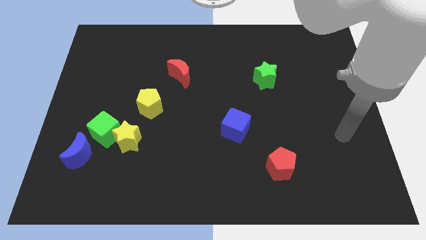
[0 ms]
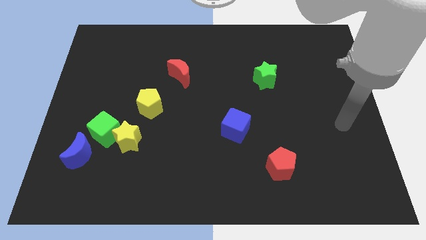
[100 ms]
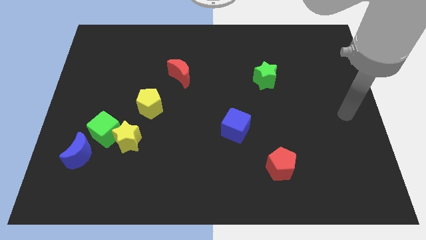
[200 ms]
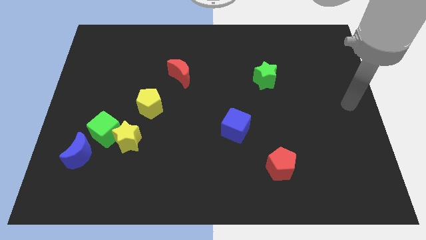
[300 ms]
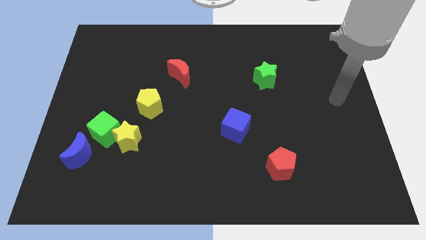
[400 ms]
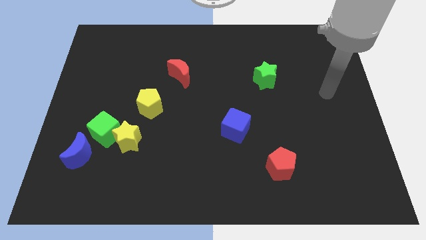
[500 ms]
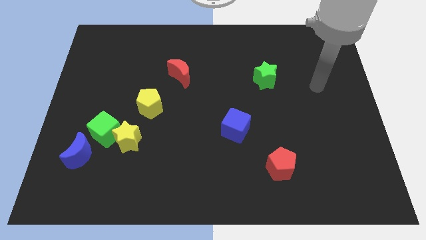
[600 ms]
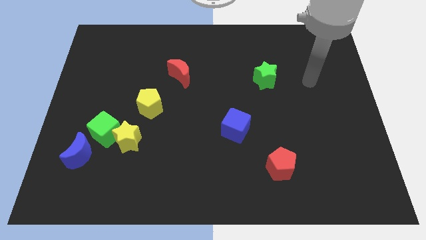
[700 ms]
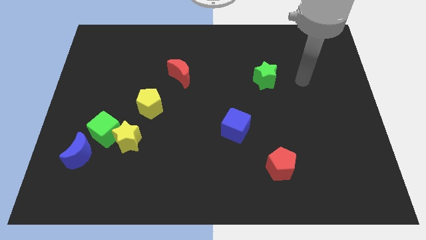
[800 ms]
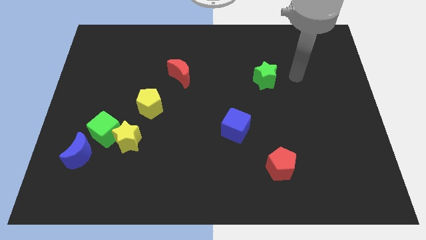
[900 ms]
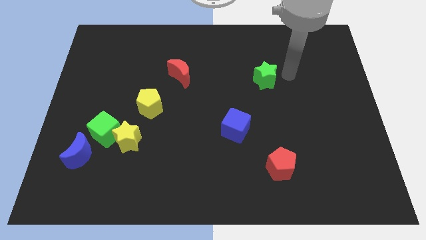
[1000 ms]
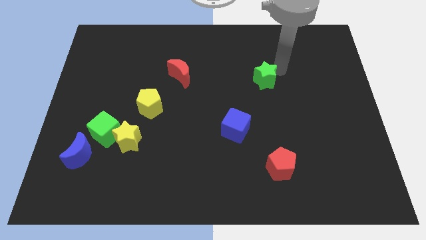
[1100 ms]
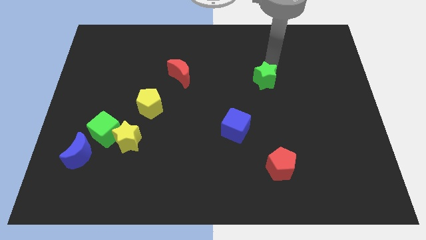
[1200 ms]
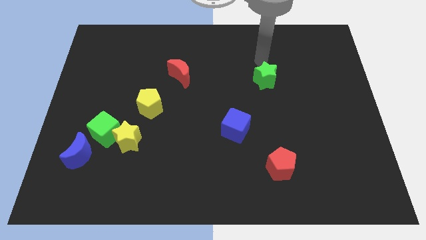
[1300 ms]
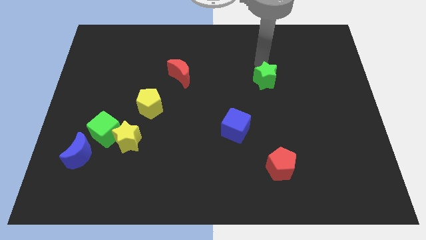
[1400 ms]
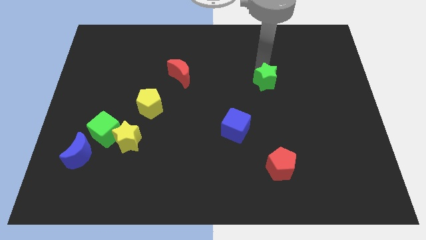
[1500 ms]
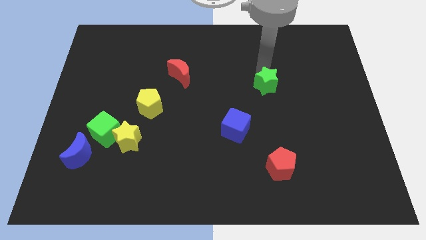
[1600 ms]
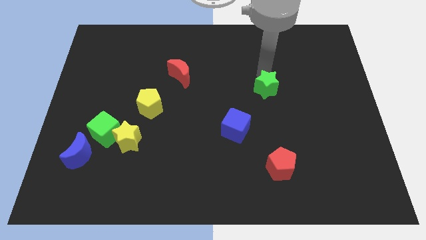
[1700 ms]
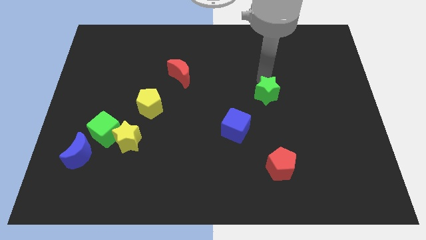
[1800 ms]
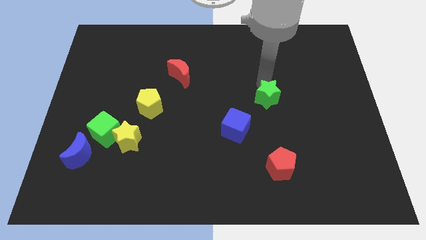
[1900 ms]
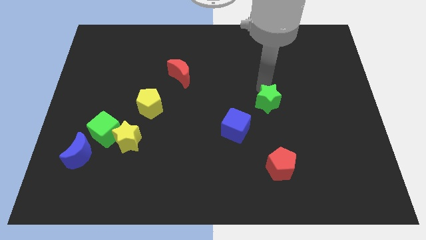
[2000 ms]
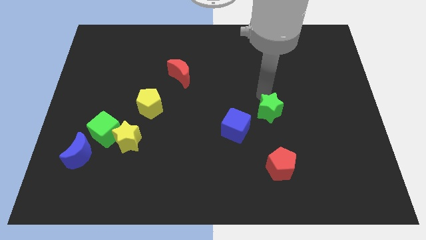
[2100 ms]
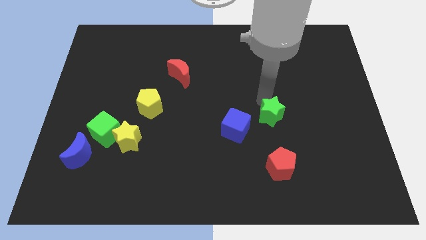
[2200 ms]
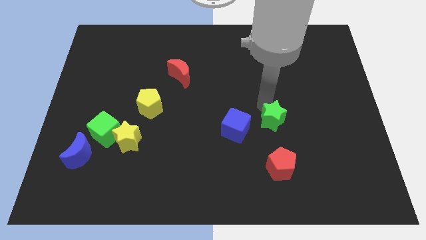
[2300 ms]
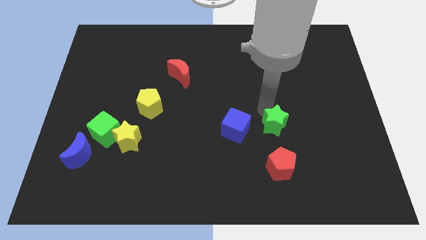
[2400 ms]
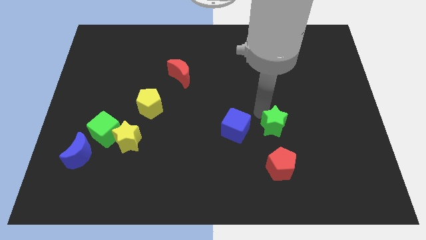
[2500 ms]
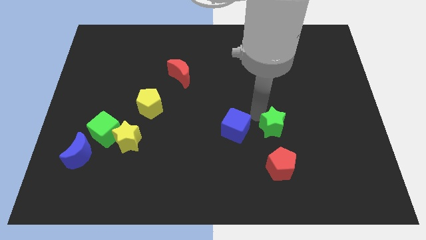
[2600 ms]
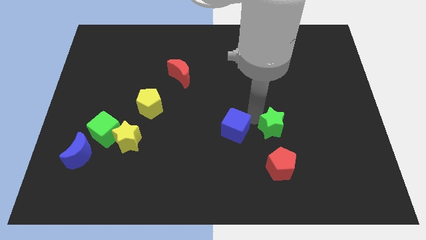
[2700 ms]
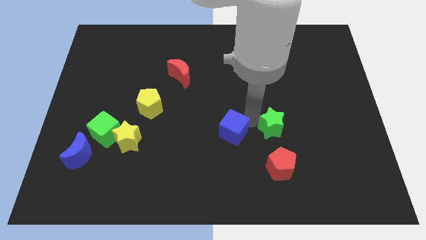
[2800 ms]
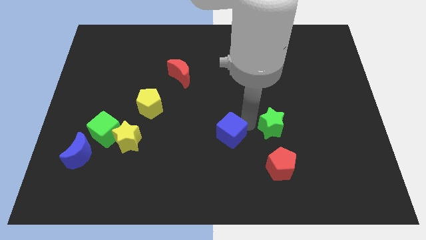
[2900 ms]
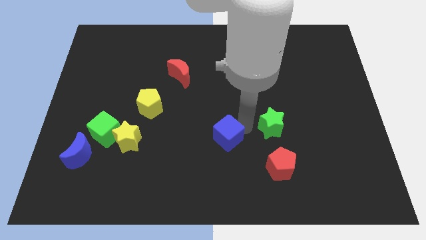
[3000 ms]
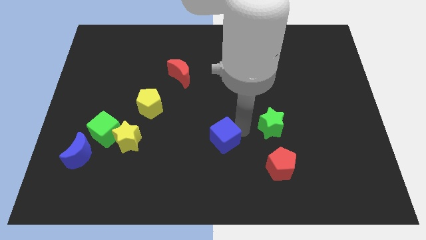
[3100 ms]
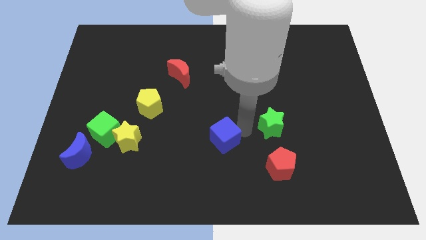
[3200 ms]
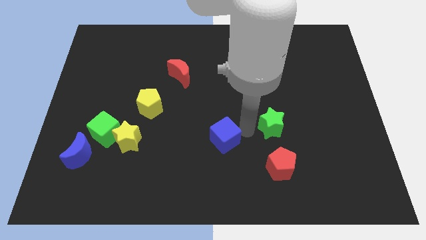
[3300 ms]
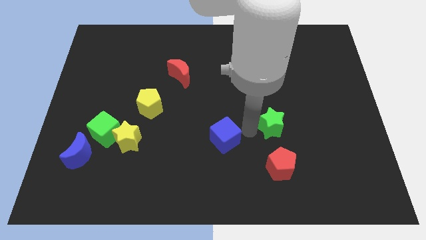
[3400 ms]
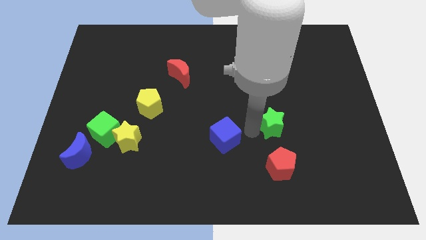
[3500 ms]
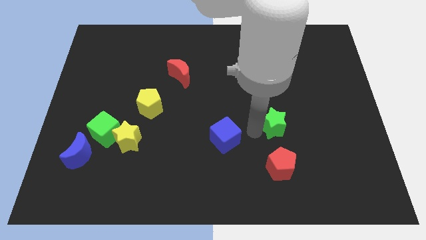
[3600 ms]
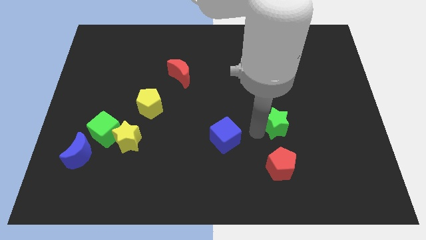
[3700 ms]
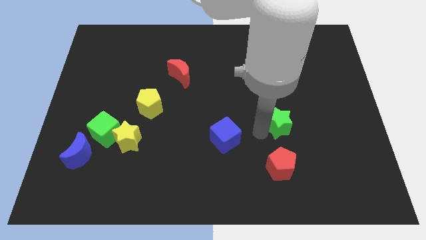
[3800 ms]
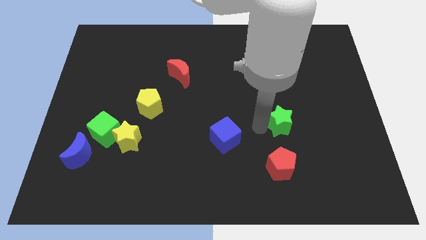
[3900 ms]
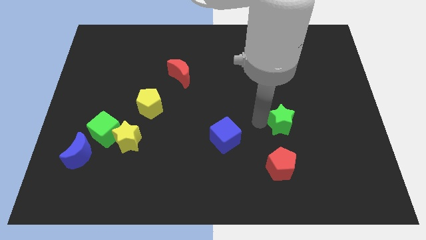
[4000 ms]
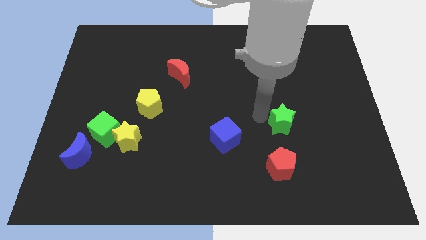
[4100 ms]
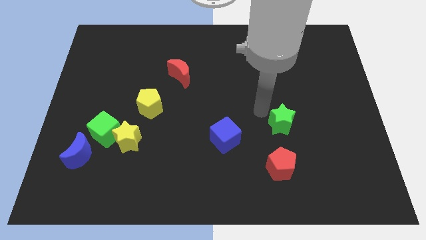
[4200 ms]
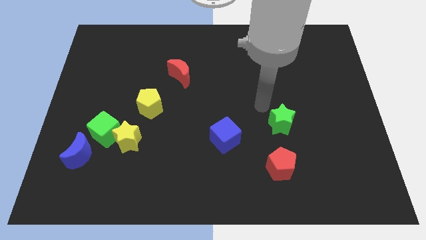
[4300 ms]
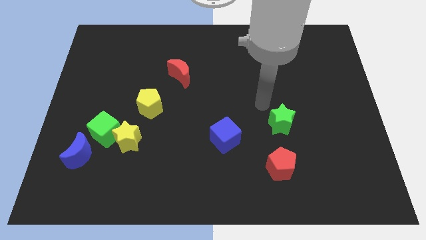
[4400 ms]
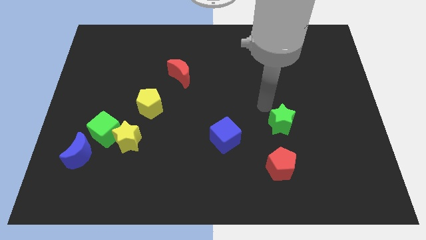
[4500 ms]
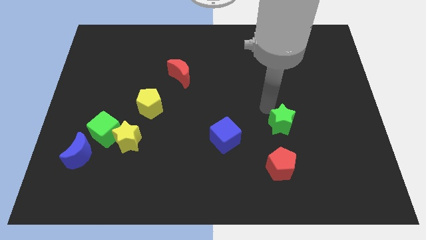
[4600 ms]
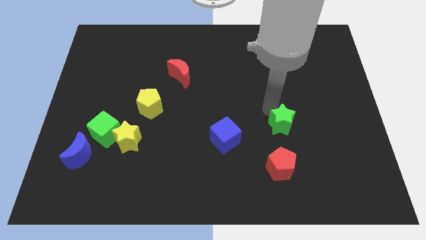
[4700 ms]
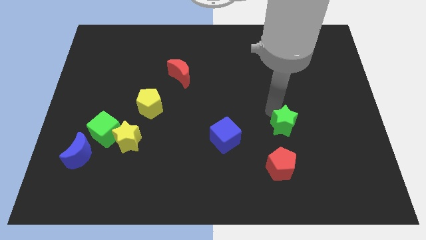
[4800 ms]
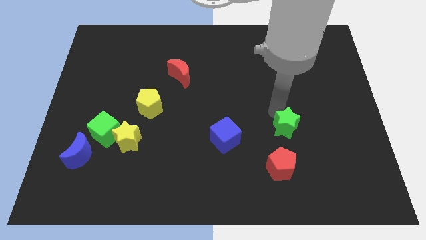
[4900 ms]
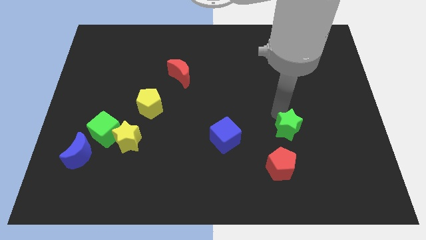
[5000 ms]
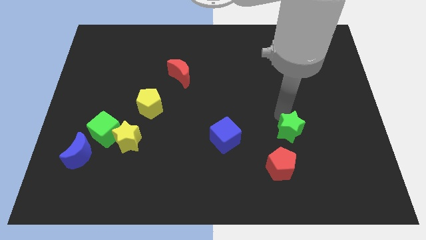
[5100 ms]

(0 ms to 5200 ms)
push the green star diagonally up and to the right of the red pentagon

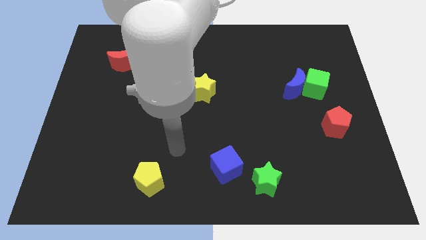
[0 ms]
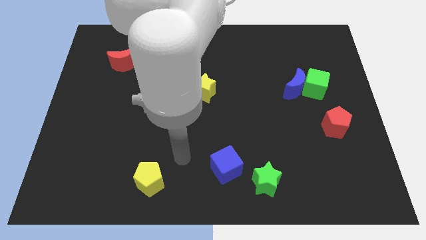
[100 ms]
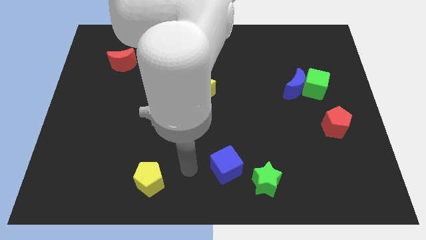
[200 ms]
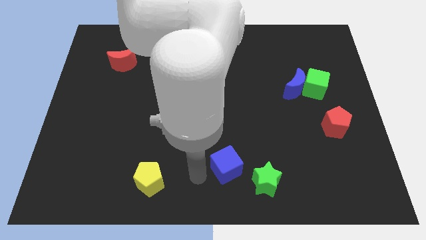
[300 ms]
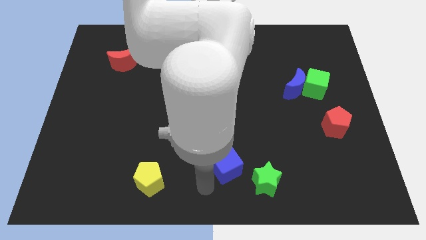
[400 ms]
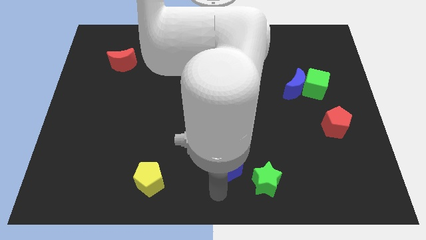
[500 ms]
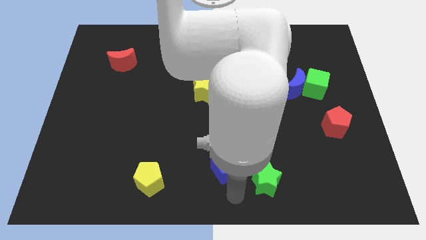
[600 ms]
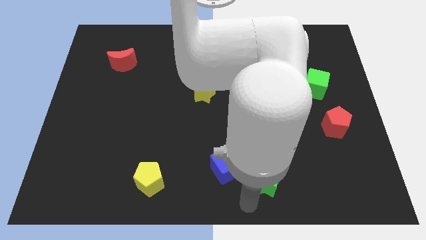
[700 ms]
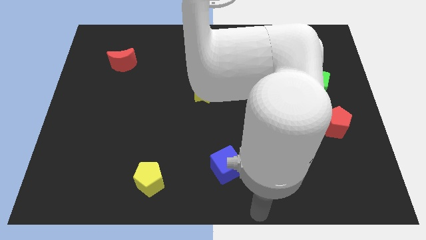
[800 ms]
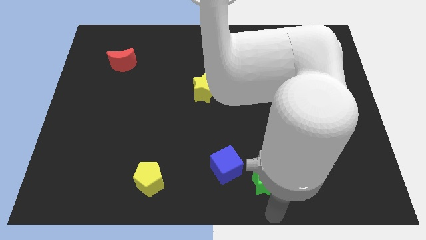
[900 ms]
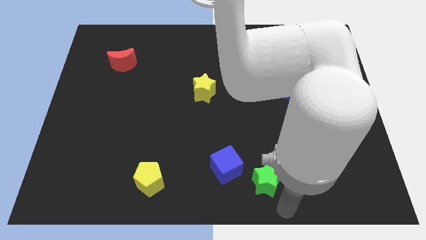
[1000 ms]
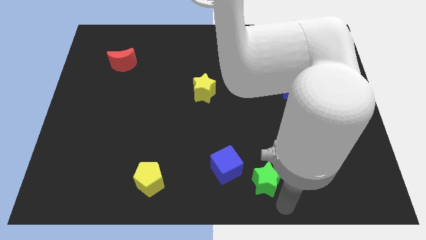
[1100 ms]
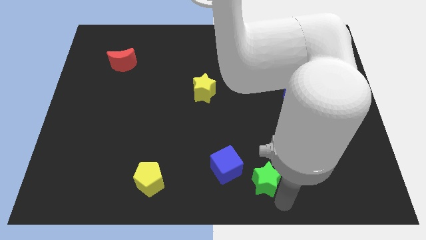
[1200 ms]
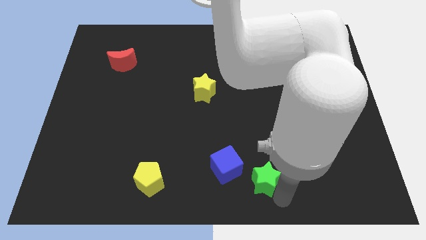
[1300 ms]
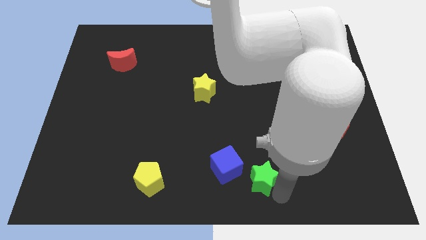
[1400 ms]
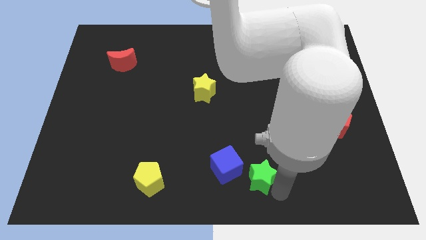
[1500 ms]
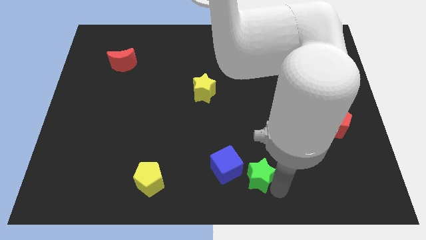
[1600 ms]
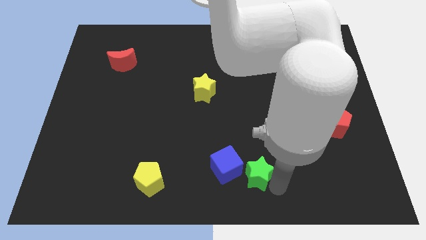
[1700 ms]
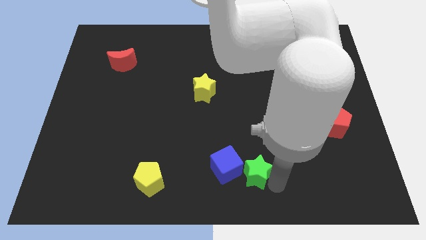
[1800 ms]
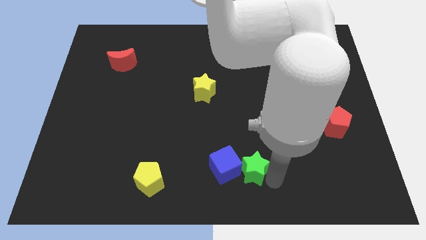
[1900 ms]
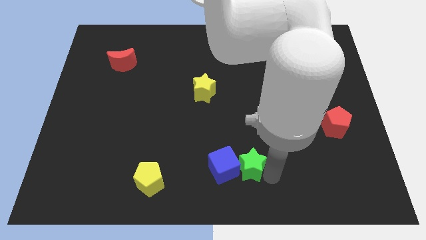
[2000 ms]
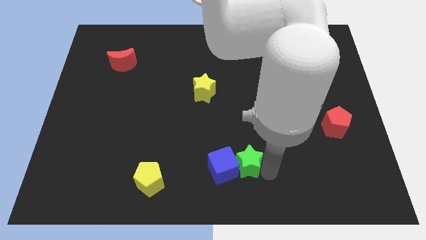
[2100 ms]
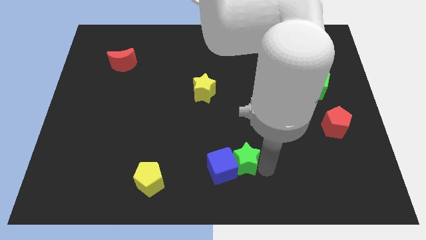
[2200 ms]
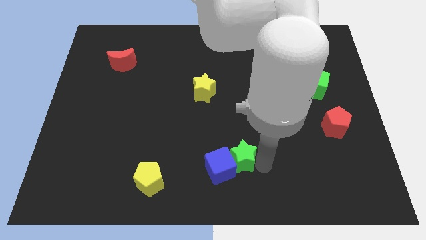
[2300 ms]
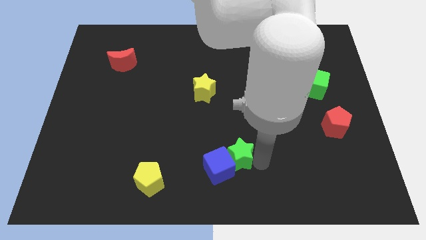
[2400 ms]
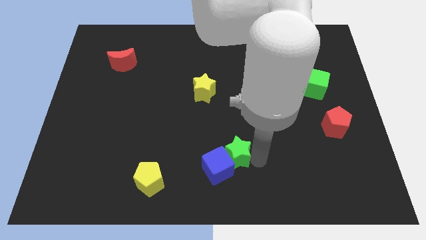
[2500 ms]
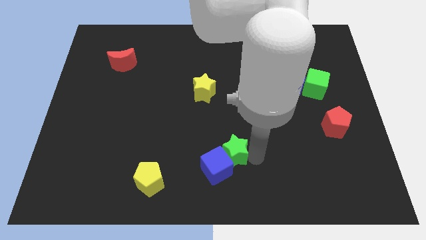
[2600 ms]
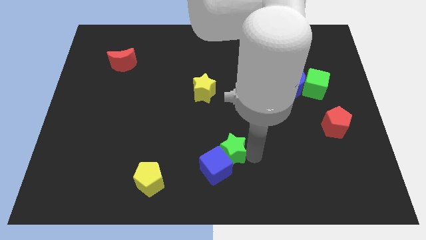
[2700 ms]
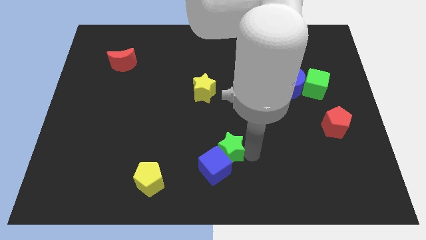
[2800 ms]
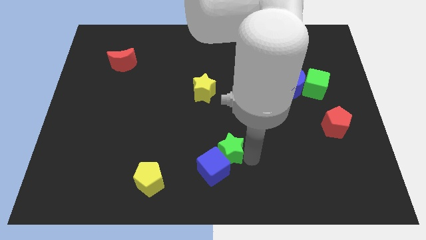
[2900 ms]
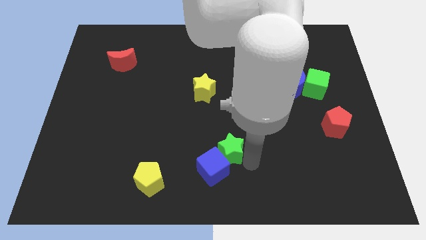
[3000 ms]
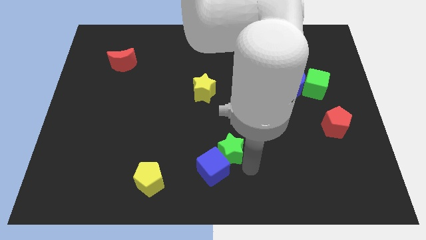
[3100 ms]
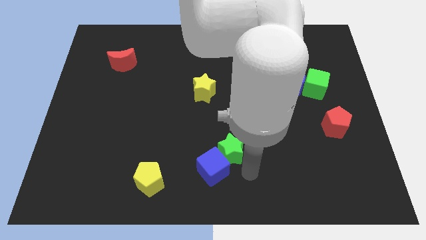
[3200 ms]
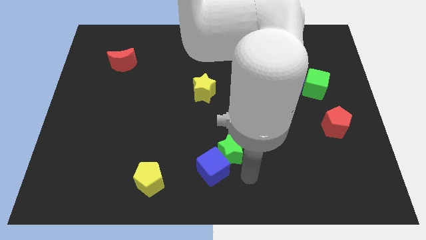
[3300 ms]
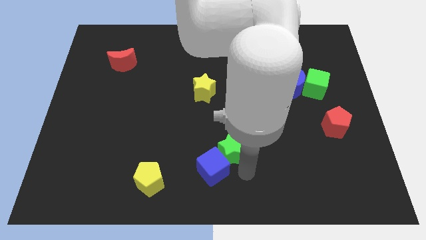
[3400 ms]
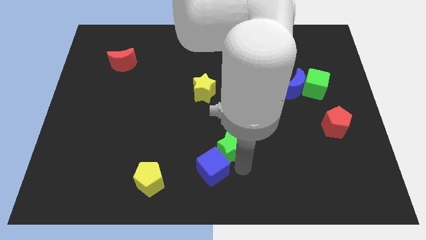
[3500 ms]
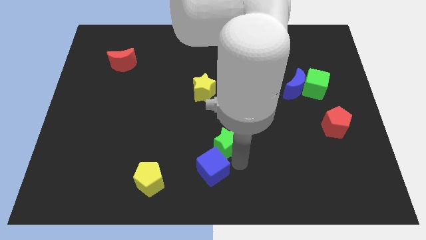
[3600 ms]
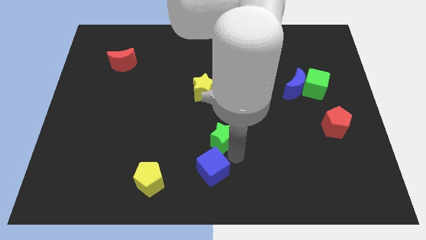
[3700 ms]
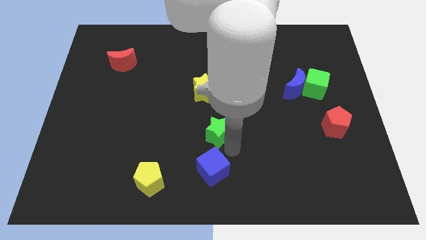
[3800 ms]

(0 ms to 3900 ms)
slide the green star to the bottom of the yellow star
